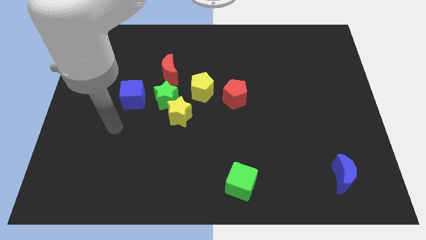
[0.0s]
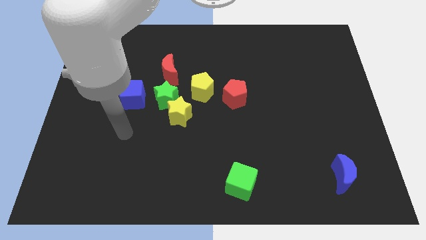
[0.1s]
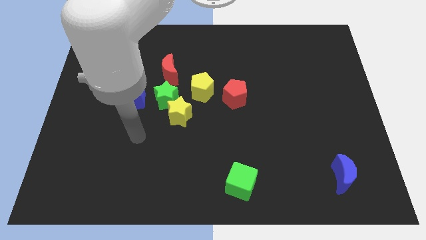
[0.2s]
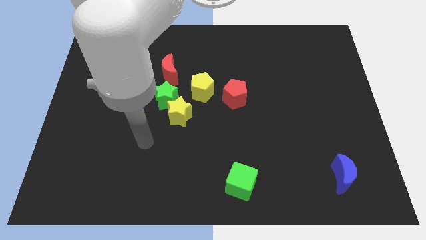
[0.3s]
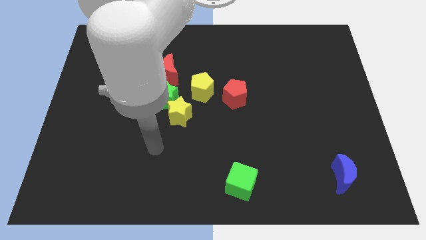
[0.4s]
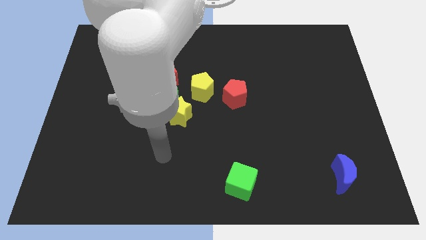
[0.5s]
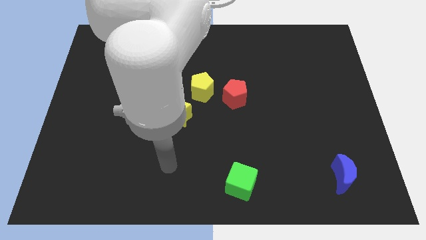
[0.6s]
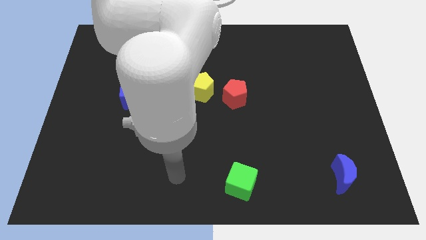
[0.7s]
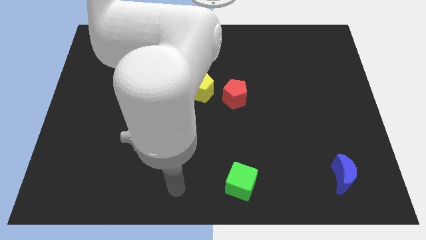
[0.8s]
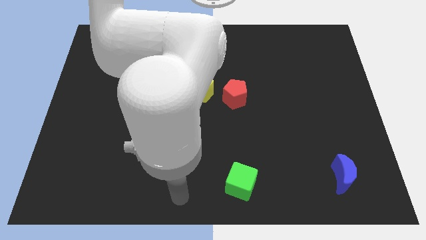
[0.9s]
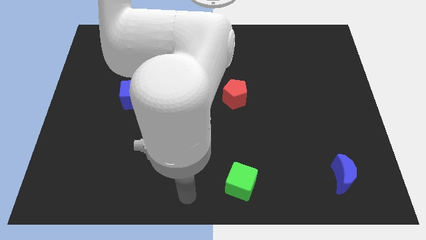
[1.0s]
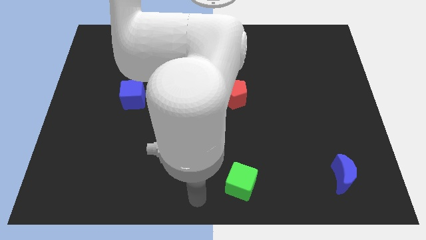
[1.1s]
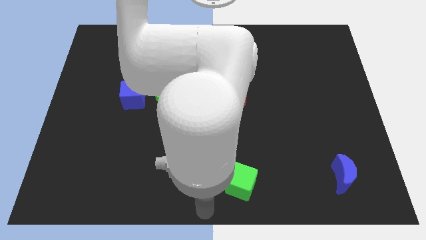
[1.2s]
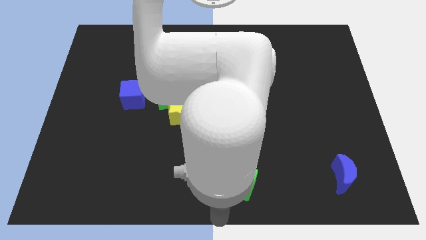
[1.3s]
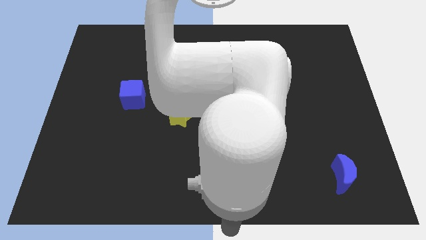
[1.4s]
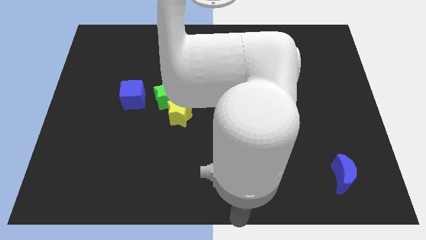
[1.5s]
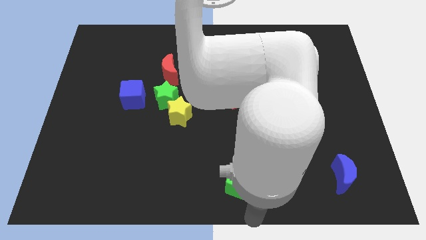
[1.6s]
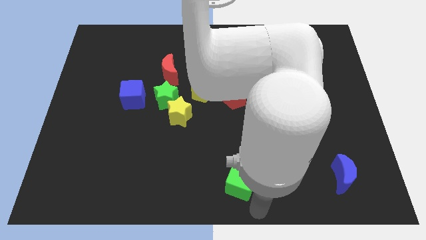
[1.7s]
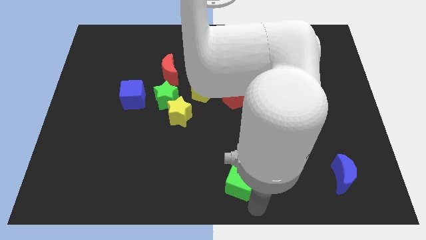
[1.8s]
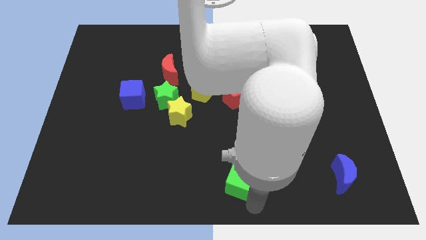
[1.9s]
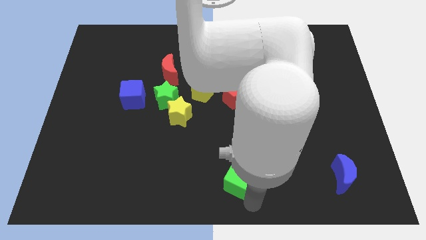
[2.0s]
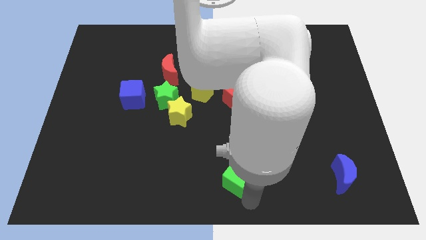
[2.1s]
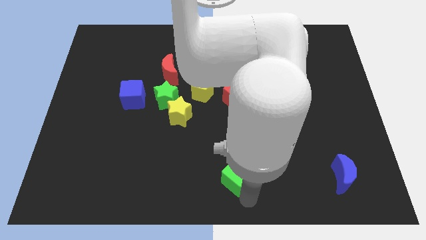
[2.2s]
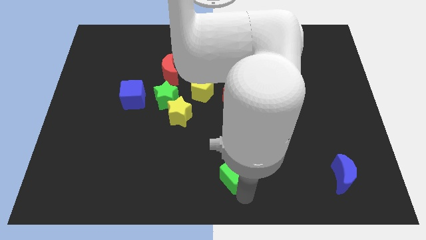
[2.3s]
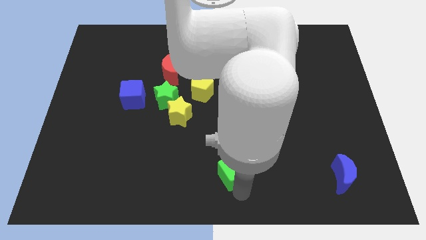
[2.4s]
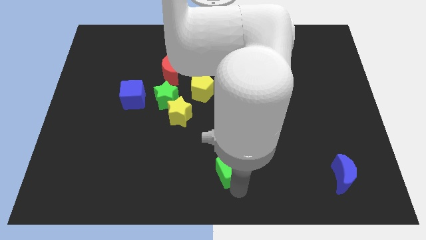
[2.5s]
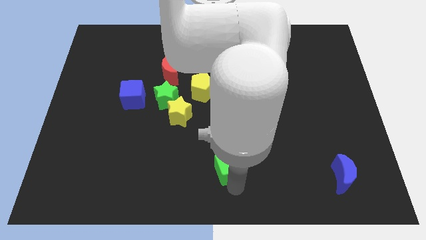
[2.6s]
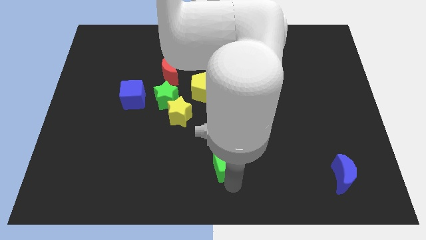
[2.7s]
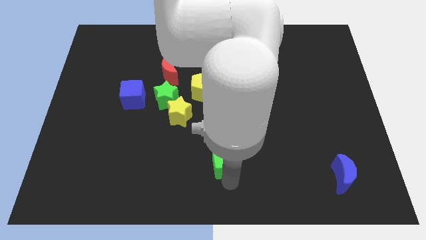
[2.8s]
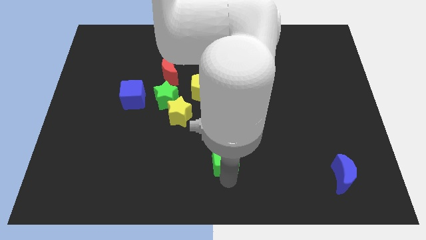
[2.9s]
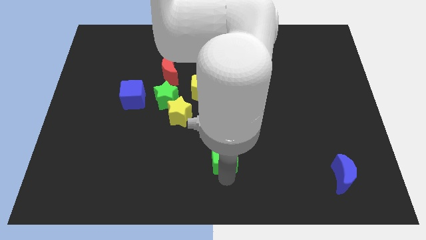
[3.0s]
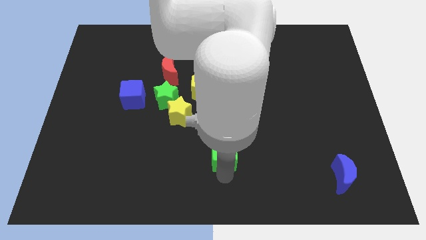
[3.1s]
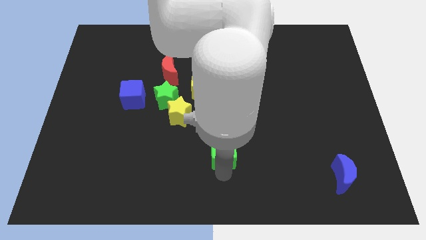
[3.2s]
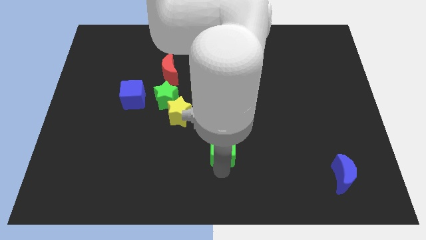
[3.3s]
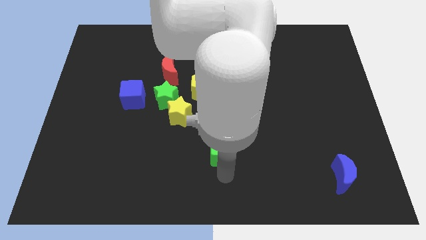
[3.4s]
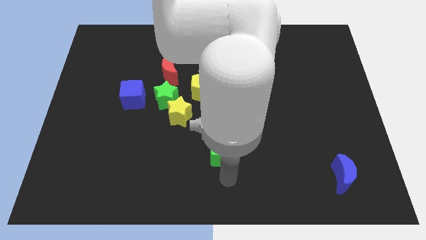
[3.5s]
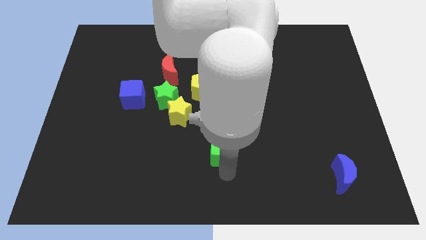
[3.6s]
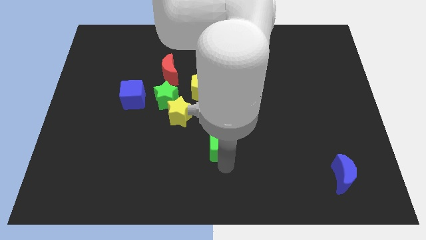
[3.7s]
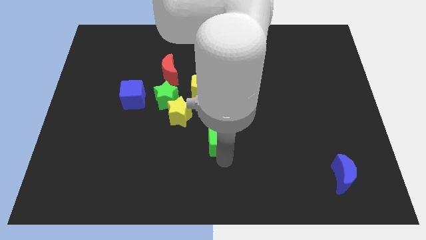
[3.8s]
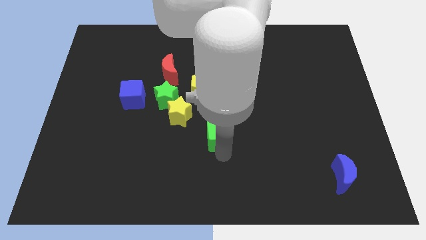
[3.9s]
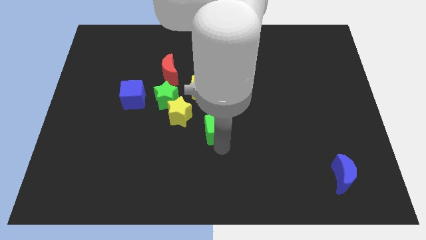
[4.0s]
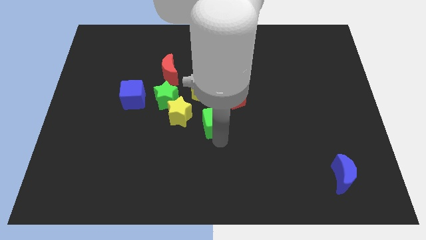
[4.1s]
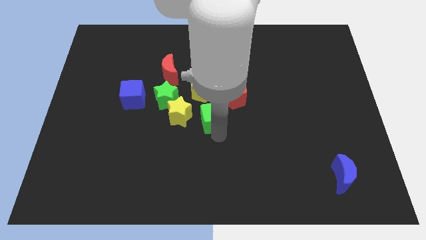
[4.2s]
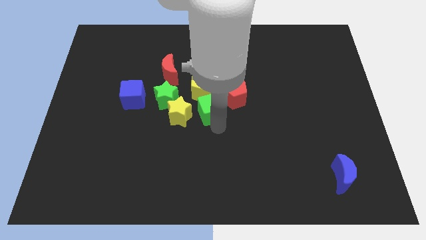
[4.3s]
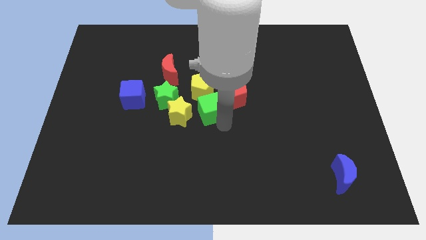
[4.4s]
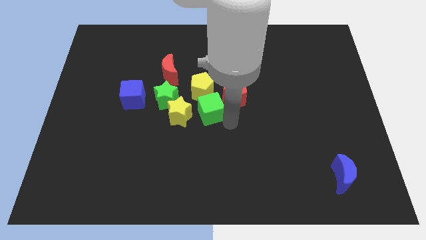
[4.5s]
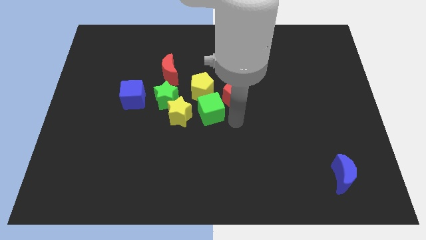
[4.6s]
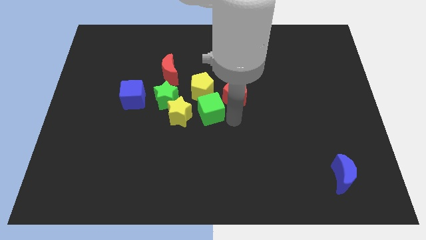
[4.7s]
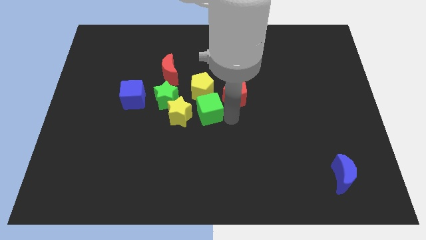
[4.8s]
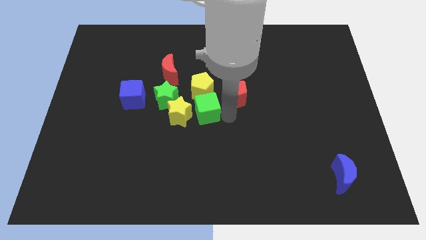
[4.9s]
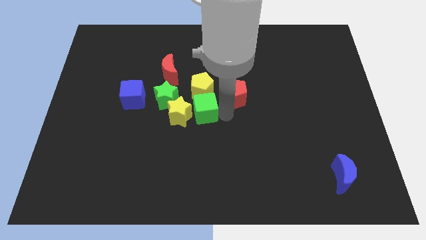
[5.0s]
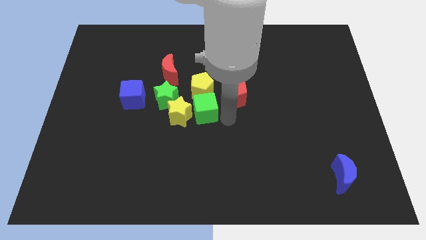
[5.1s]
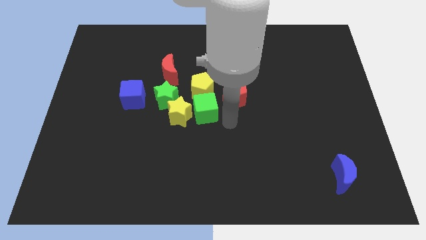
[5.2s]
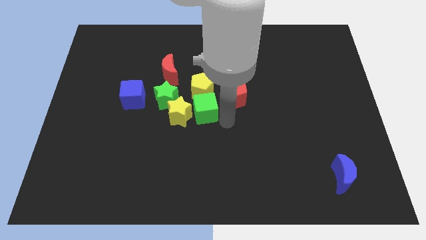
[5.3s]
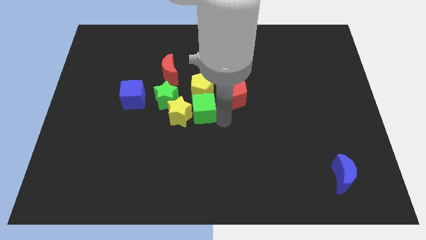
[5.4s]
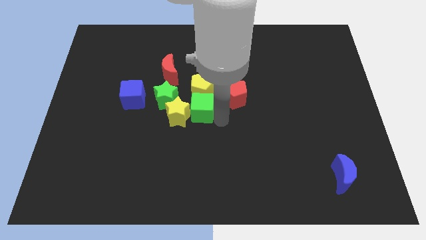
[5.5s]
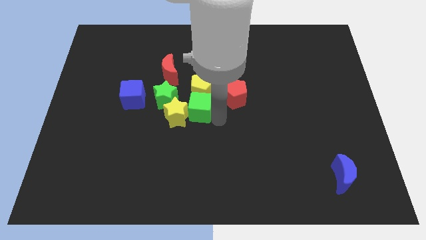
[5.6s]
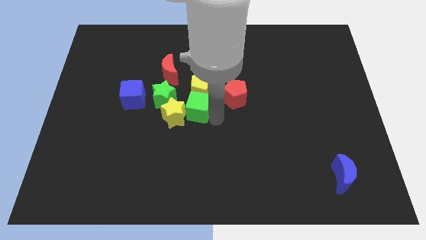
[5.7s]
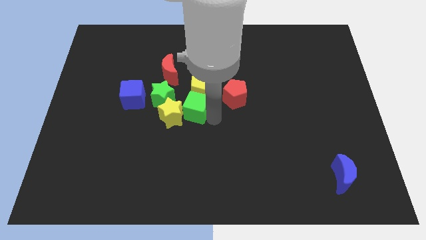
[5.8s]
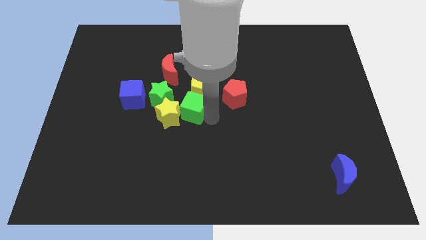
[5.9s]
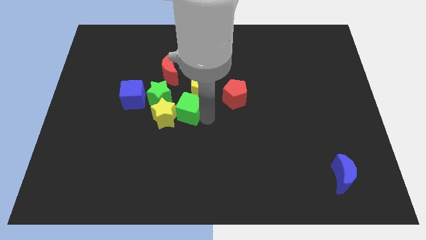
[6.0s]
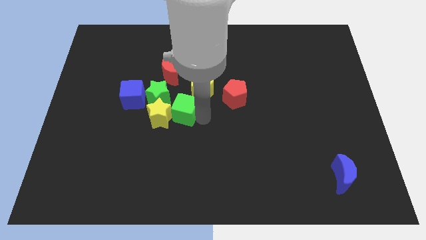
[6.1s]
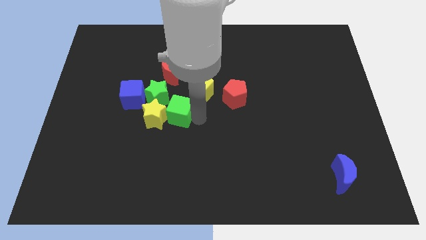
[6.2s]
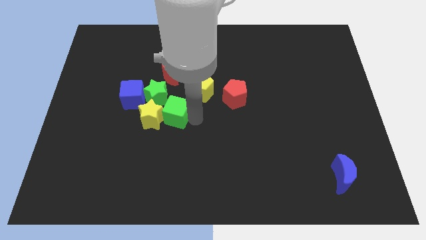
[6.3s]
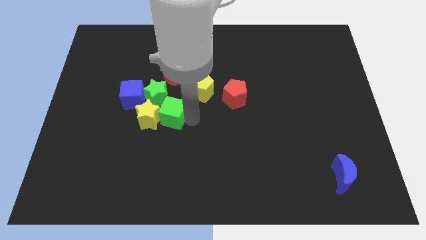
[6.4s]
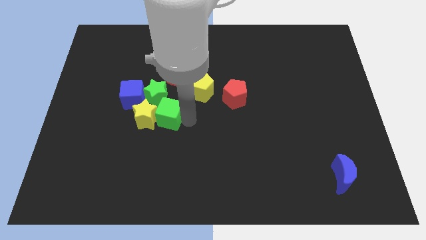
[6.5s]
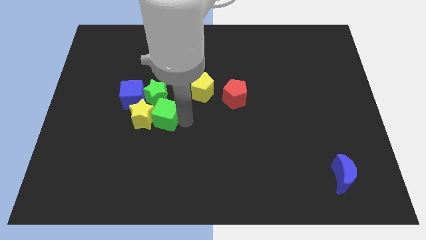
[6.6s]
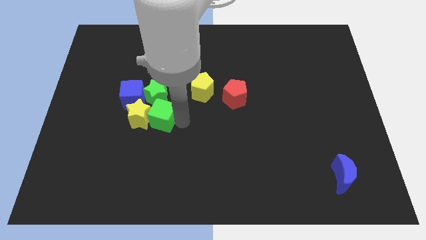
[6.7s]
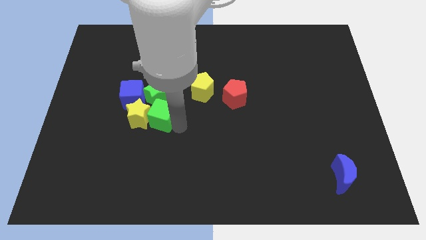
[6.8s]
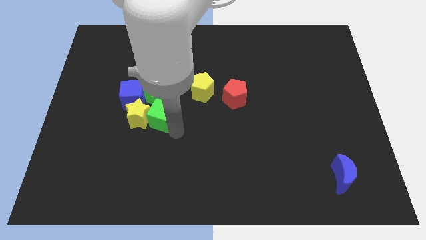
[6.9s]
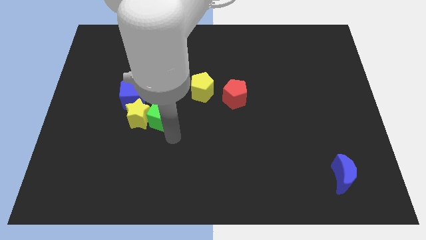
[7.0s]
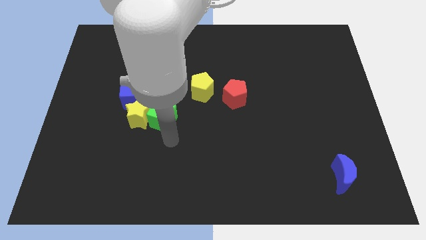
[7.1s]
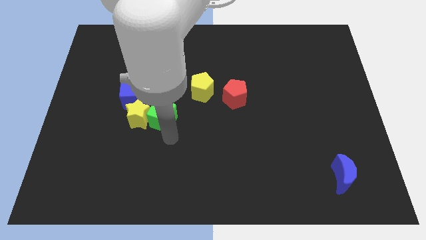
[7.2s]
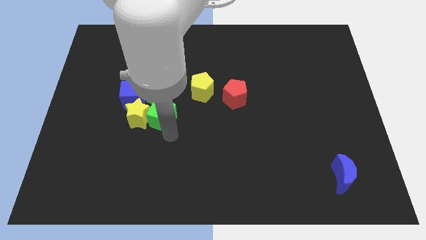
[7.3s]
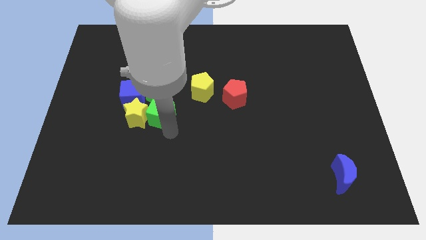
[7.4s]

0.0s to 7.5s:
slide the green cube to the green star

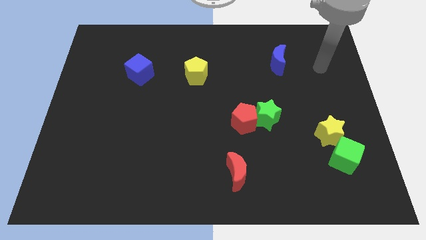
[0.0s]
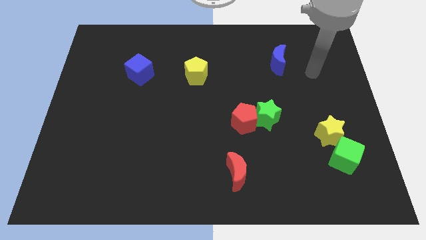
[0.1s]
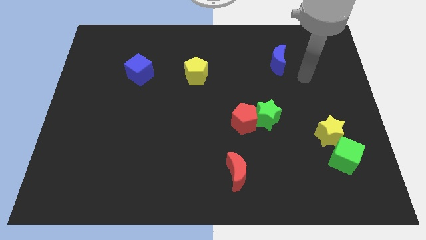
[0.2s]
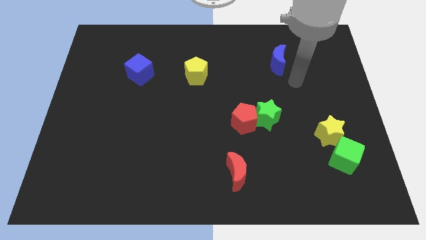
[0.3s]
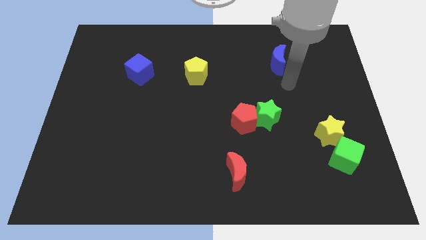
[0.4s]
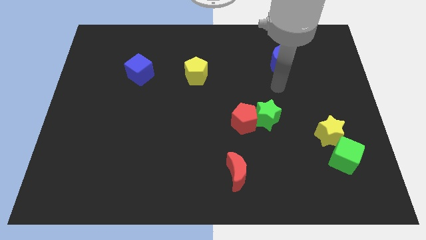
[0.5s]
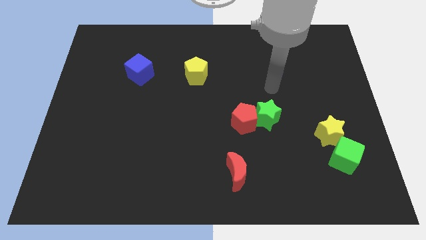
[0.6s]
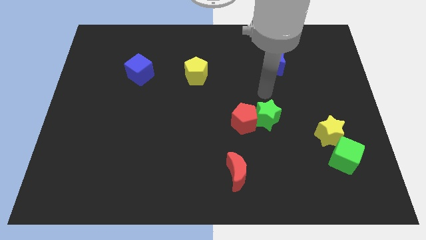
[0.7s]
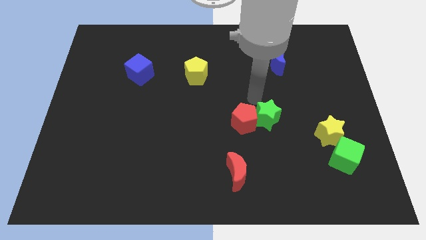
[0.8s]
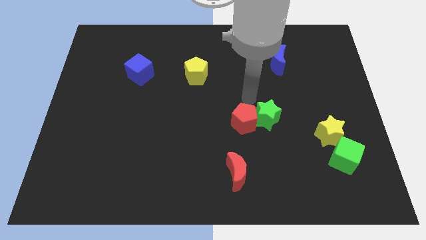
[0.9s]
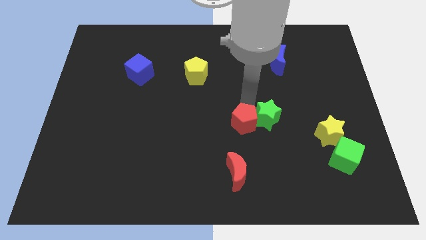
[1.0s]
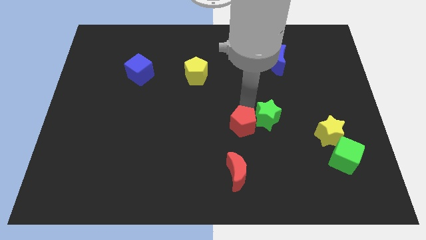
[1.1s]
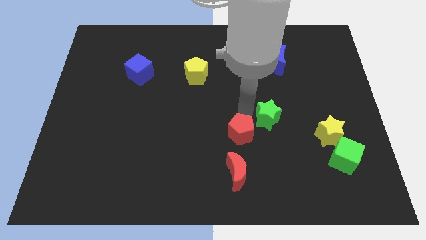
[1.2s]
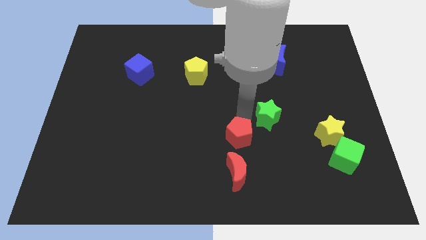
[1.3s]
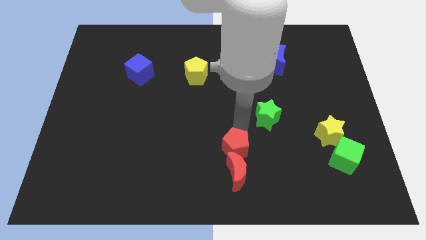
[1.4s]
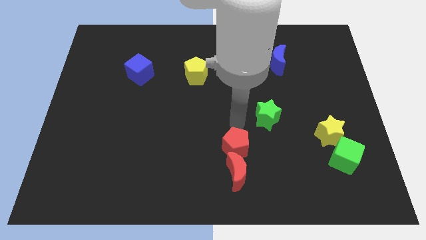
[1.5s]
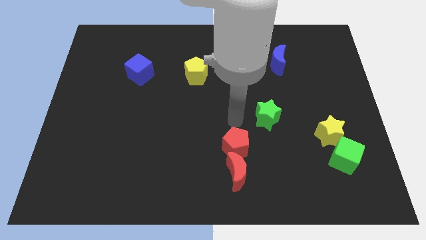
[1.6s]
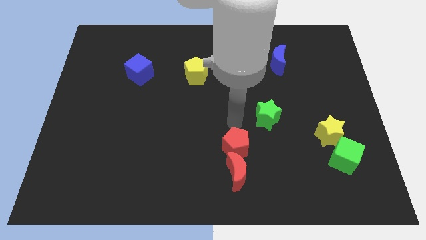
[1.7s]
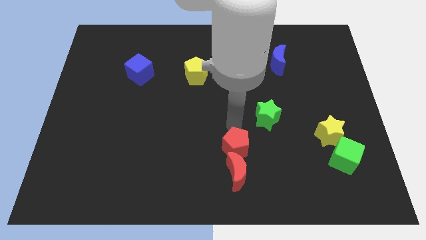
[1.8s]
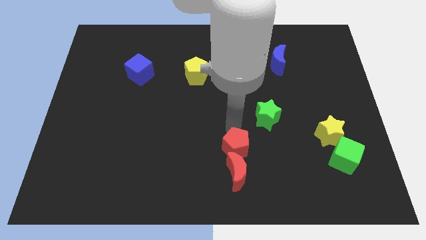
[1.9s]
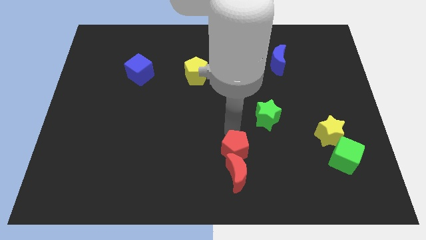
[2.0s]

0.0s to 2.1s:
put the red pentagon to the red moon
